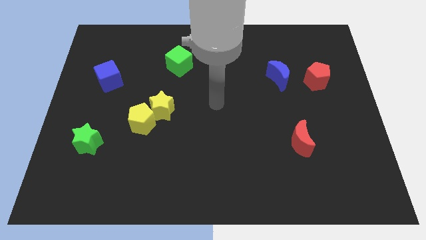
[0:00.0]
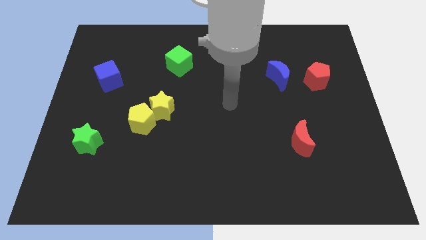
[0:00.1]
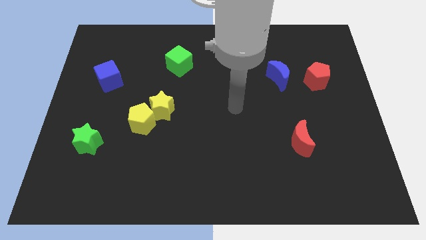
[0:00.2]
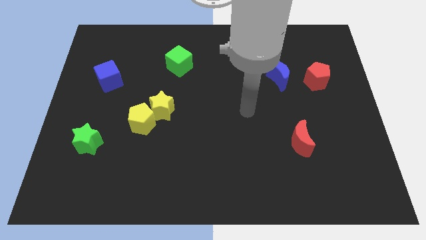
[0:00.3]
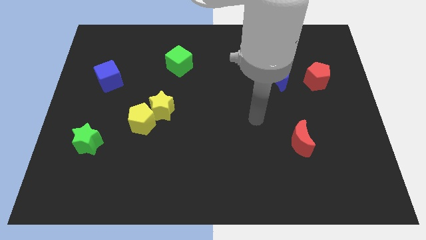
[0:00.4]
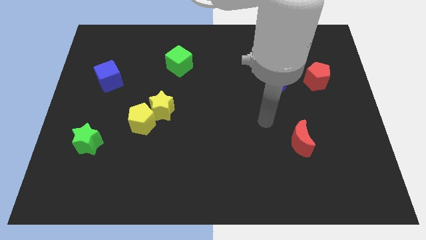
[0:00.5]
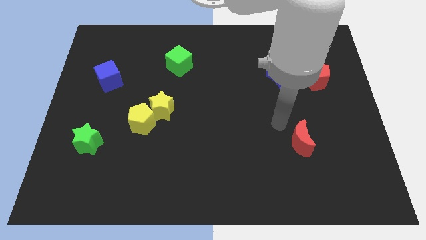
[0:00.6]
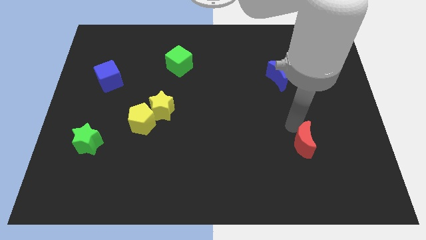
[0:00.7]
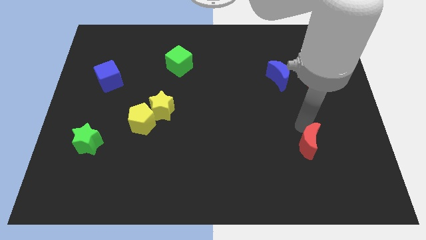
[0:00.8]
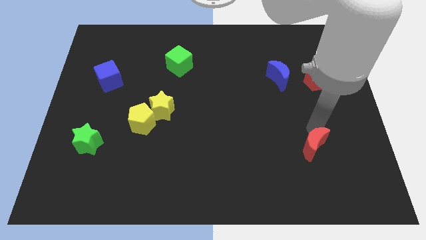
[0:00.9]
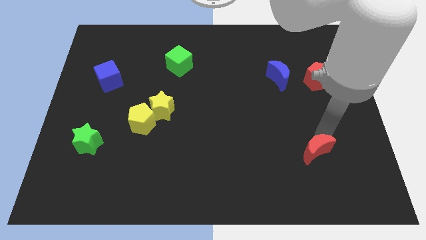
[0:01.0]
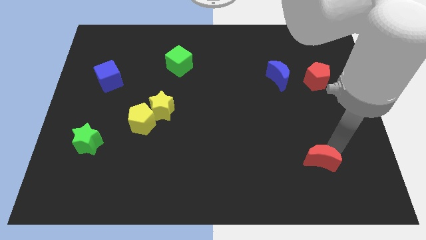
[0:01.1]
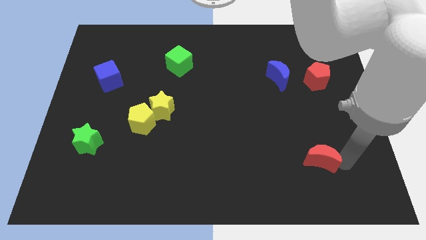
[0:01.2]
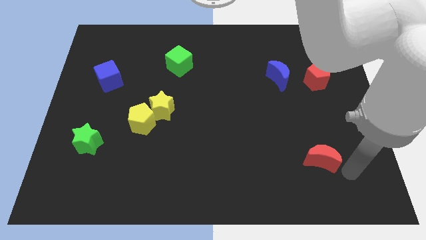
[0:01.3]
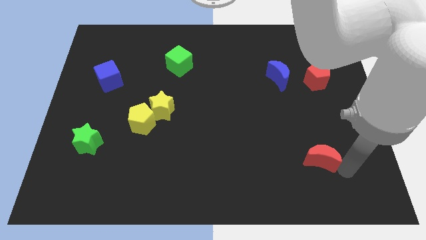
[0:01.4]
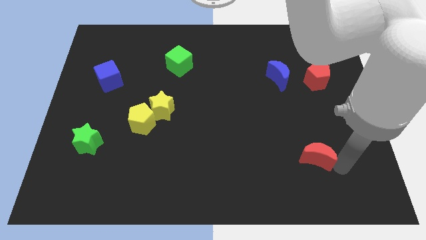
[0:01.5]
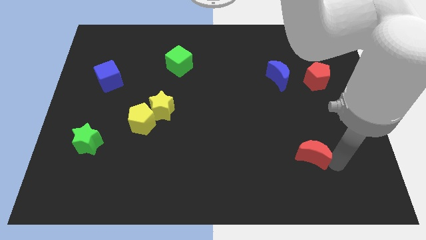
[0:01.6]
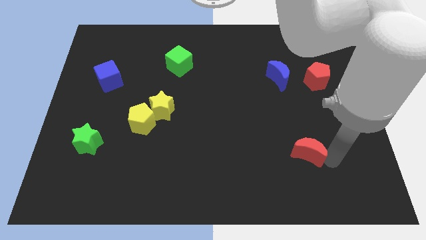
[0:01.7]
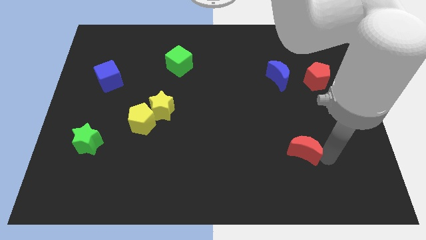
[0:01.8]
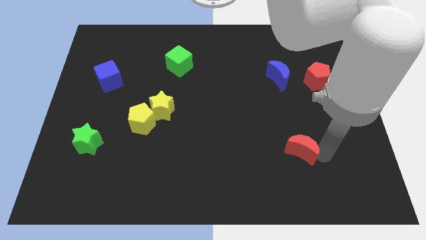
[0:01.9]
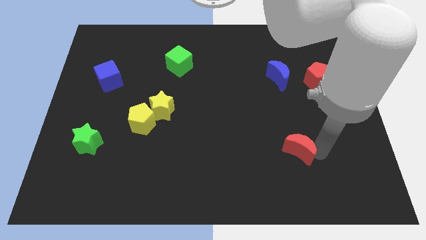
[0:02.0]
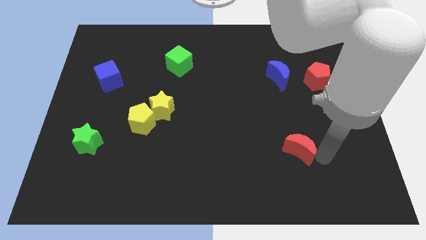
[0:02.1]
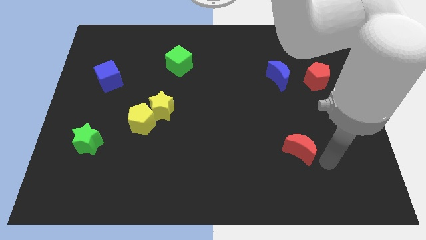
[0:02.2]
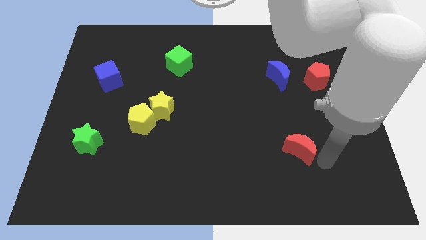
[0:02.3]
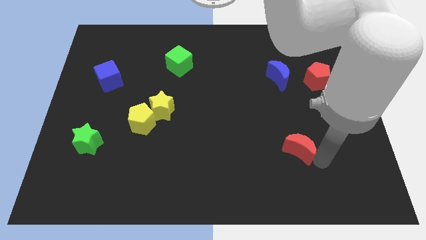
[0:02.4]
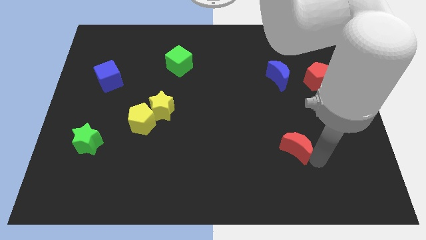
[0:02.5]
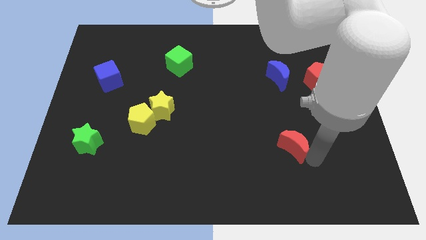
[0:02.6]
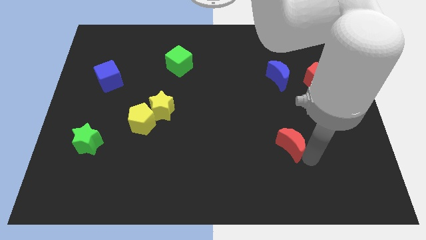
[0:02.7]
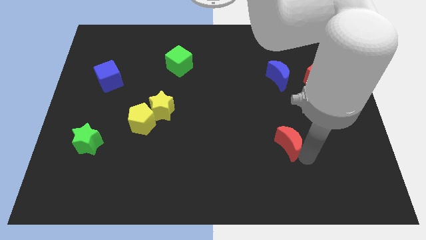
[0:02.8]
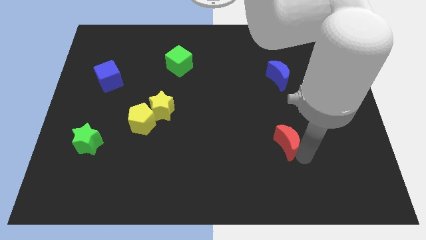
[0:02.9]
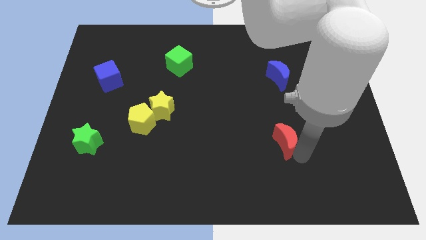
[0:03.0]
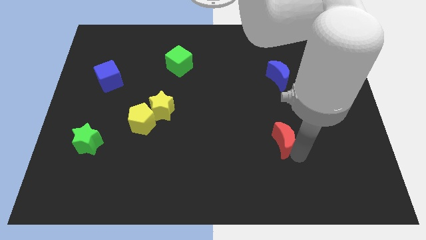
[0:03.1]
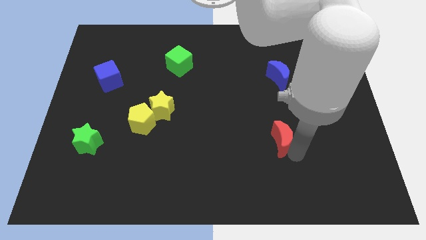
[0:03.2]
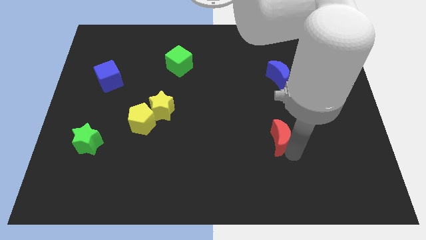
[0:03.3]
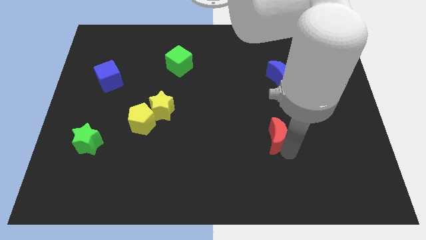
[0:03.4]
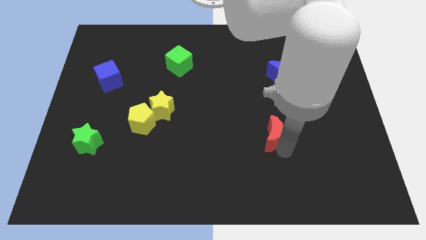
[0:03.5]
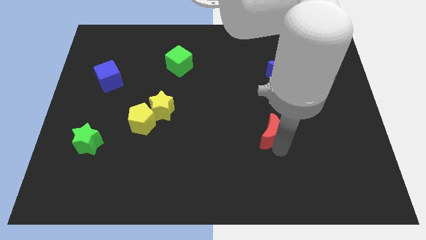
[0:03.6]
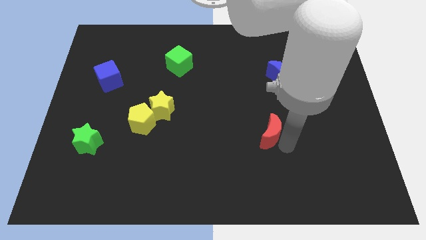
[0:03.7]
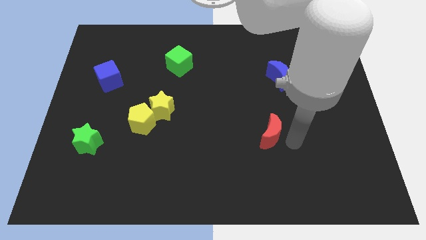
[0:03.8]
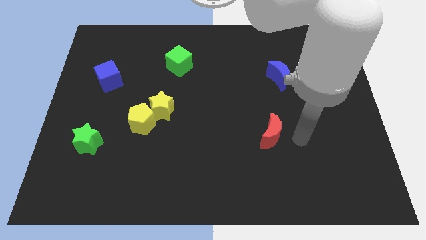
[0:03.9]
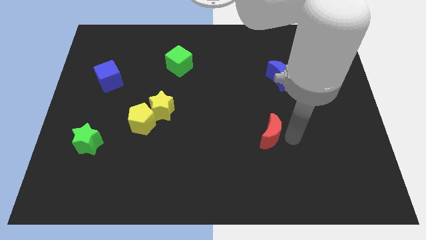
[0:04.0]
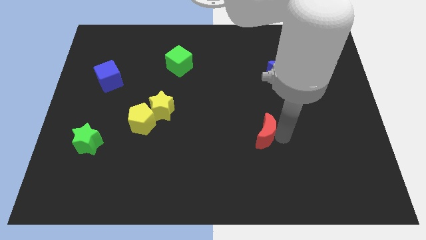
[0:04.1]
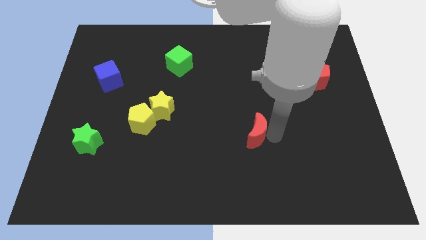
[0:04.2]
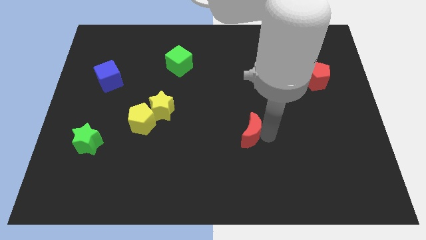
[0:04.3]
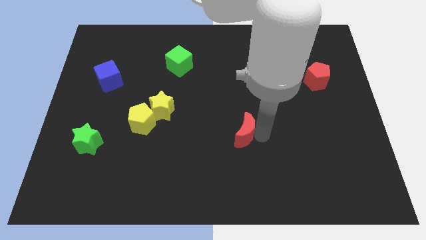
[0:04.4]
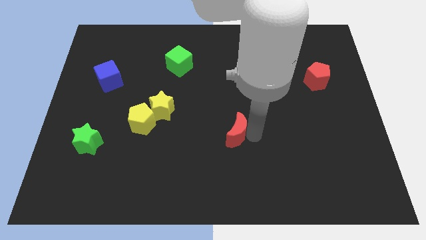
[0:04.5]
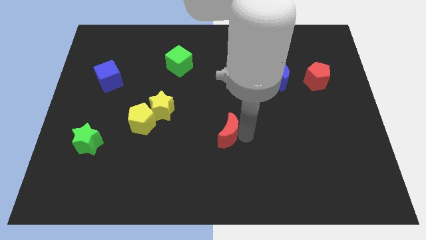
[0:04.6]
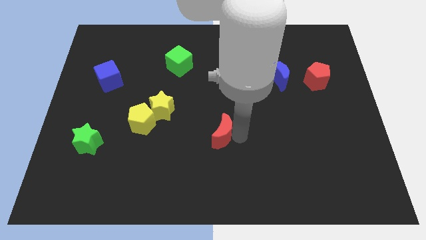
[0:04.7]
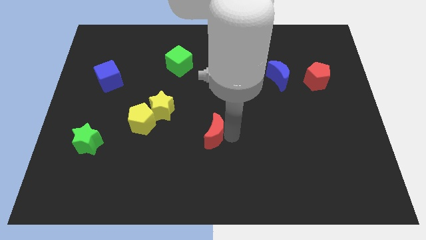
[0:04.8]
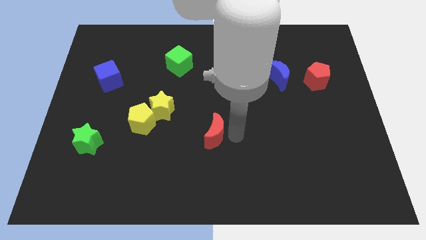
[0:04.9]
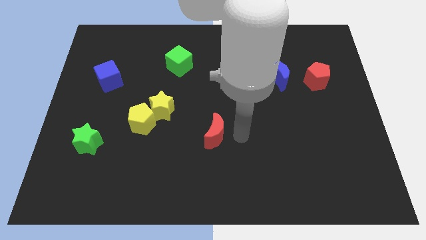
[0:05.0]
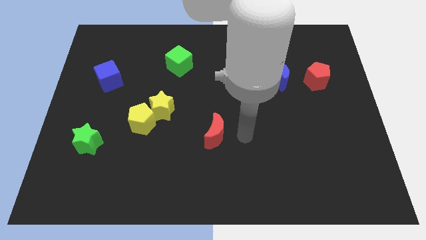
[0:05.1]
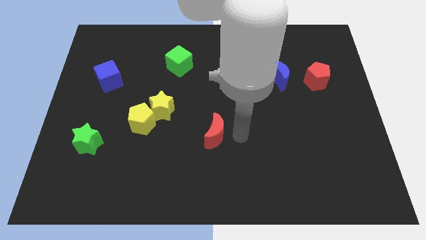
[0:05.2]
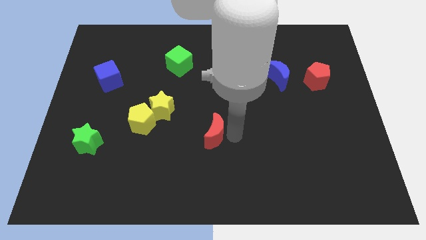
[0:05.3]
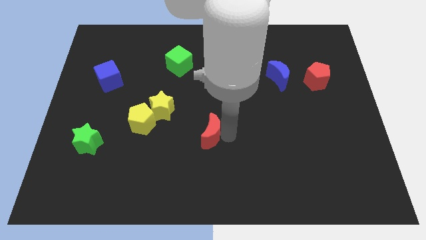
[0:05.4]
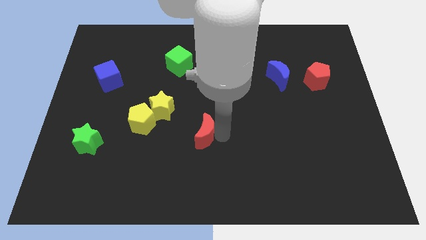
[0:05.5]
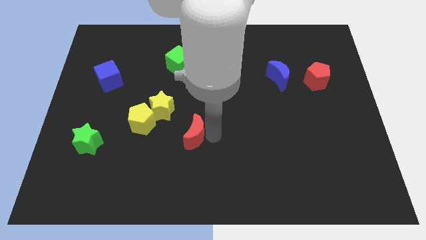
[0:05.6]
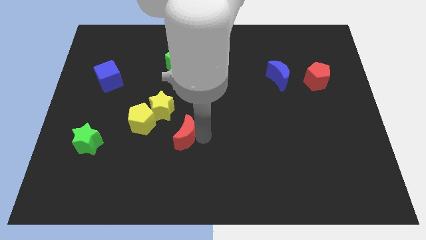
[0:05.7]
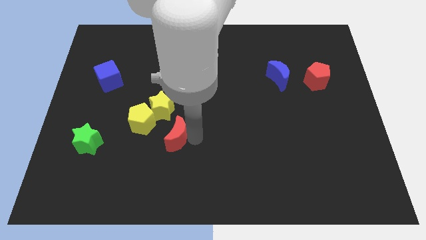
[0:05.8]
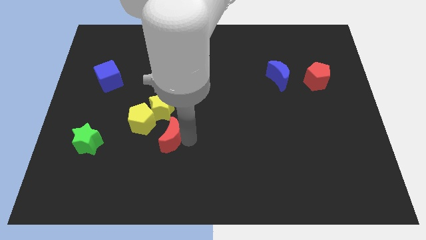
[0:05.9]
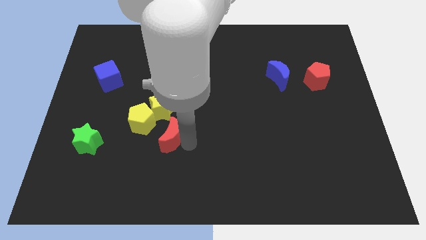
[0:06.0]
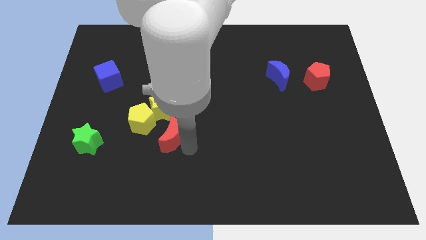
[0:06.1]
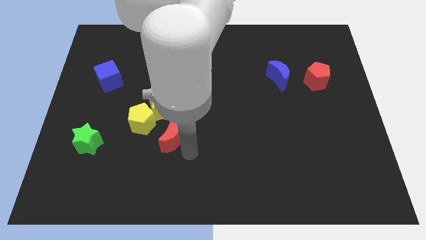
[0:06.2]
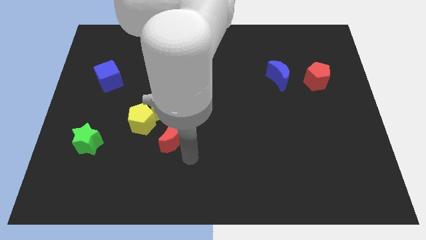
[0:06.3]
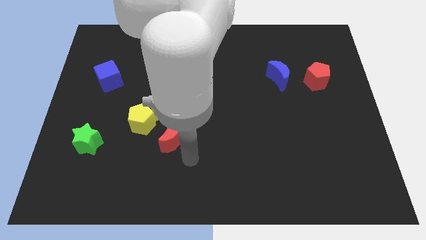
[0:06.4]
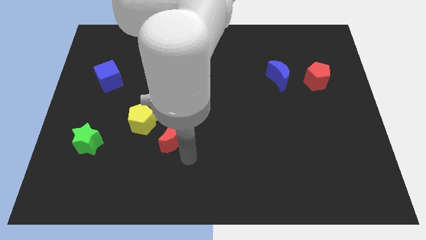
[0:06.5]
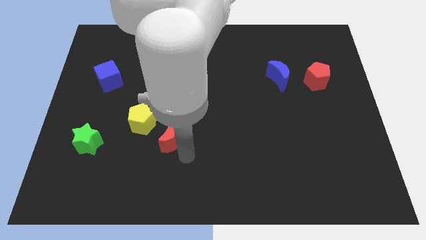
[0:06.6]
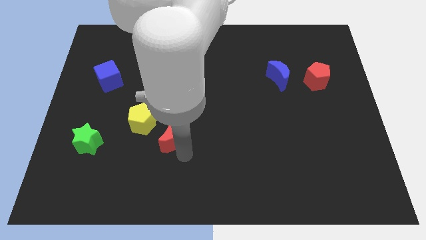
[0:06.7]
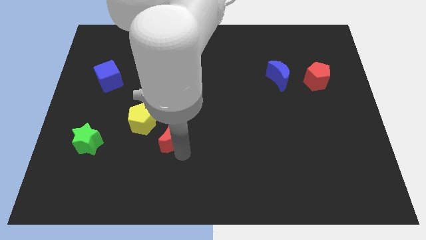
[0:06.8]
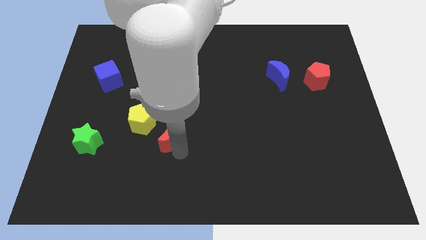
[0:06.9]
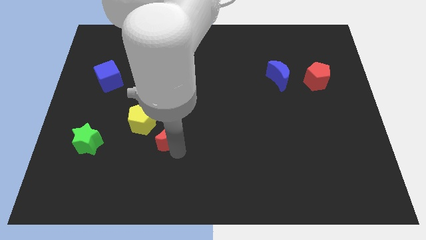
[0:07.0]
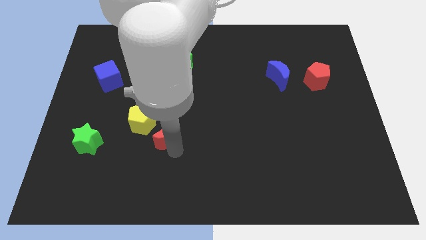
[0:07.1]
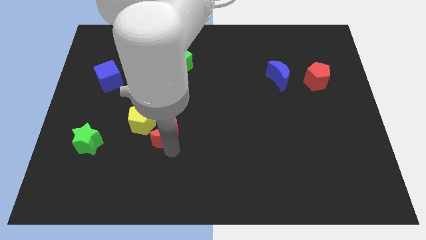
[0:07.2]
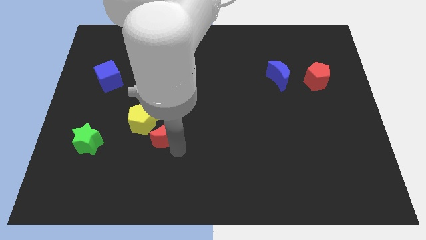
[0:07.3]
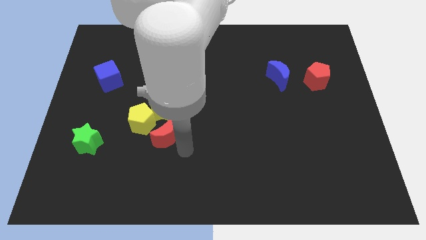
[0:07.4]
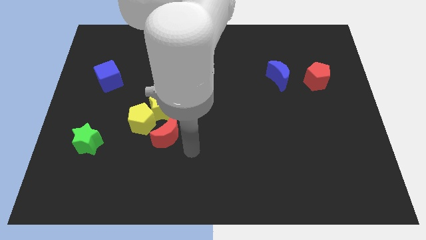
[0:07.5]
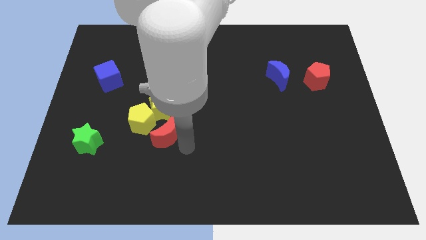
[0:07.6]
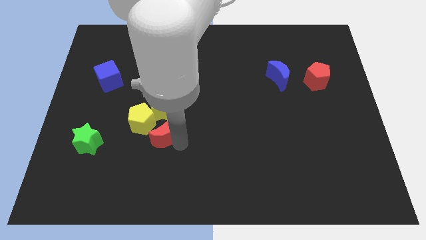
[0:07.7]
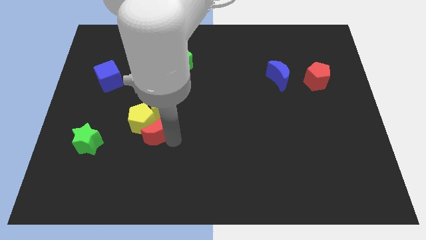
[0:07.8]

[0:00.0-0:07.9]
slide the red moon close to the yellow pentagon
